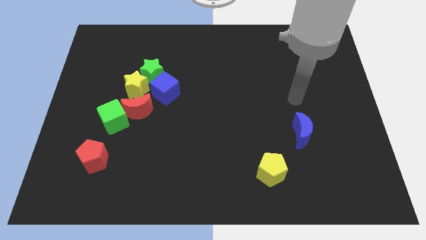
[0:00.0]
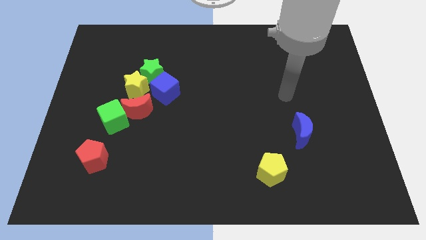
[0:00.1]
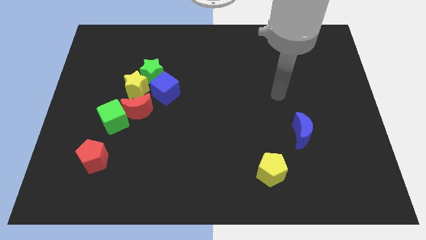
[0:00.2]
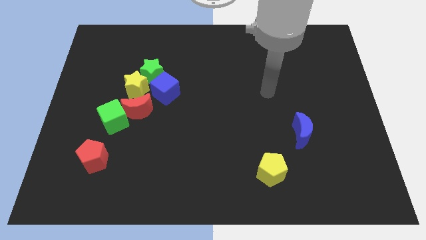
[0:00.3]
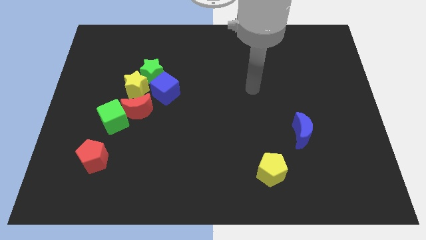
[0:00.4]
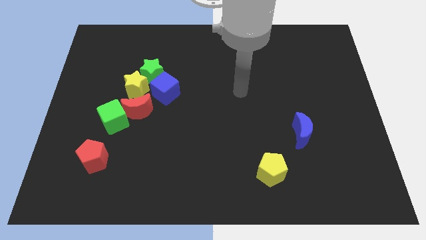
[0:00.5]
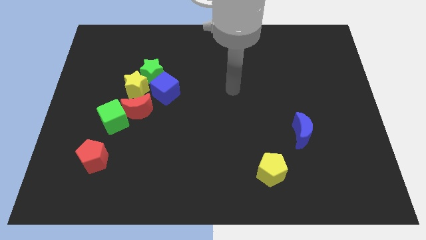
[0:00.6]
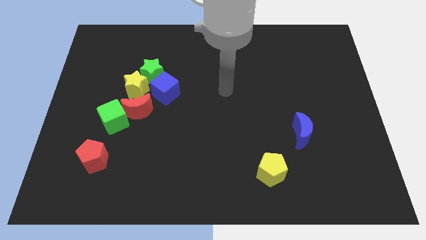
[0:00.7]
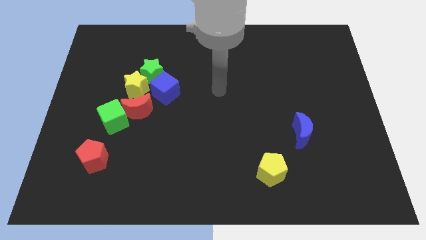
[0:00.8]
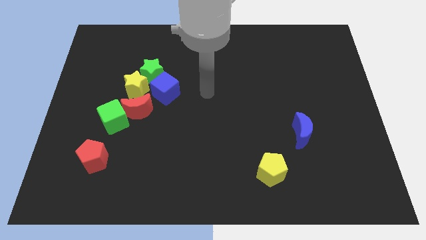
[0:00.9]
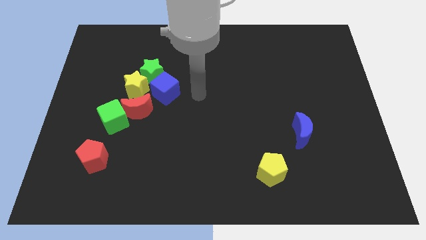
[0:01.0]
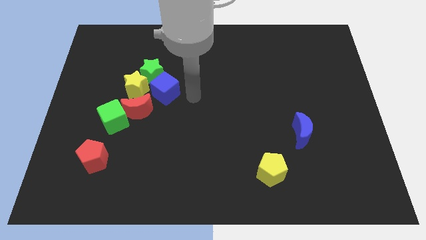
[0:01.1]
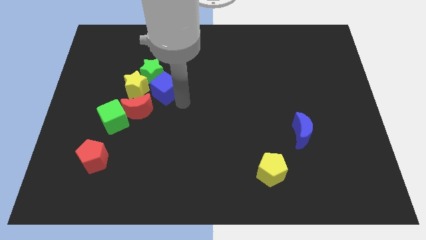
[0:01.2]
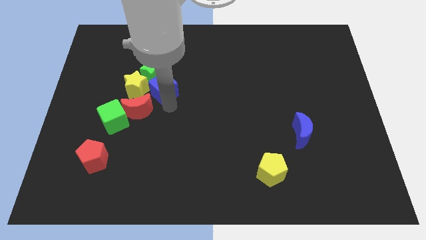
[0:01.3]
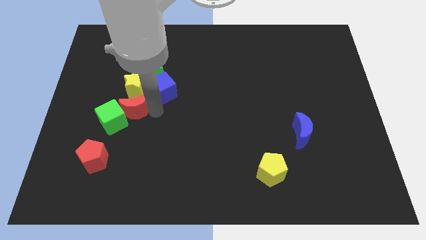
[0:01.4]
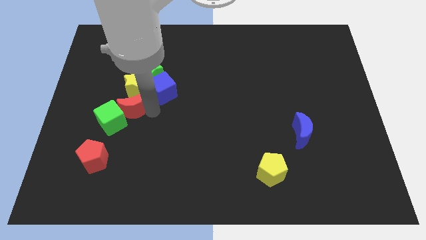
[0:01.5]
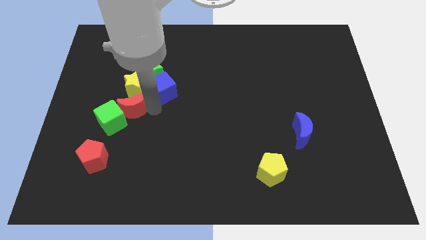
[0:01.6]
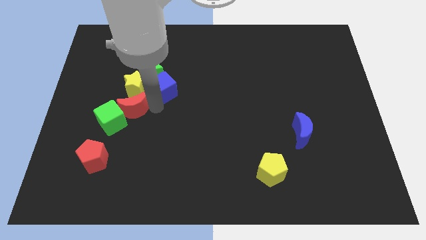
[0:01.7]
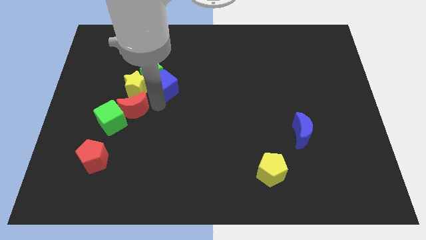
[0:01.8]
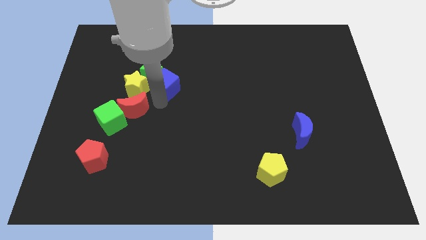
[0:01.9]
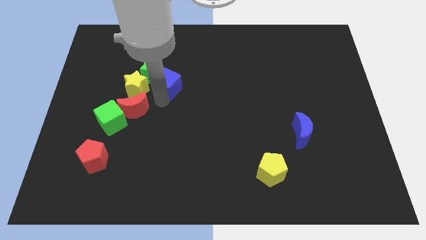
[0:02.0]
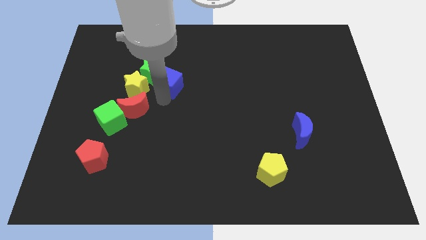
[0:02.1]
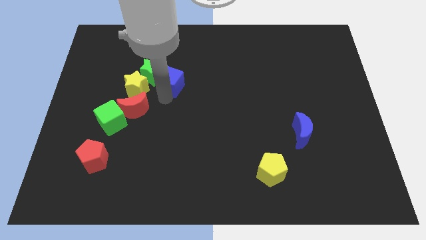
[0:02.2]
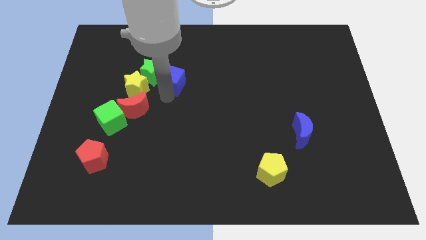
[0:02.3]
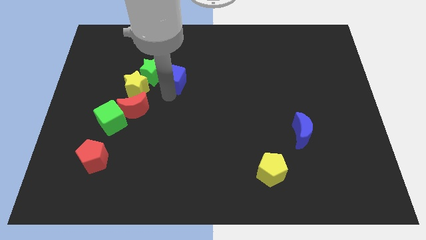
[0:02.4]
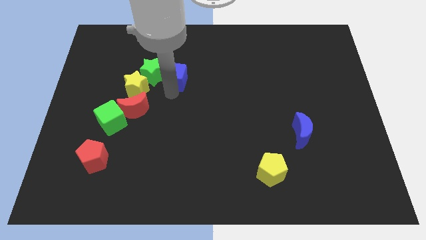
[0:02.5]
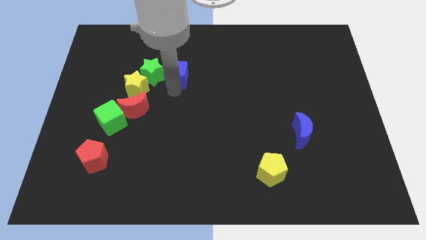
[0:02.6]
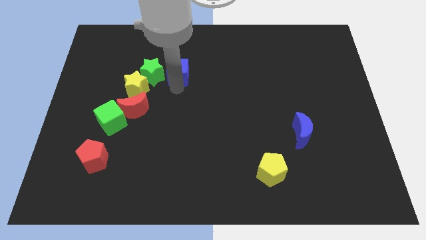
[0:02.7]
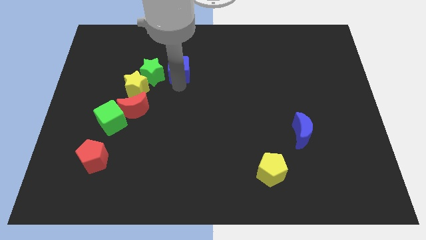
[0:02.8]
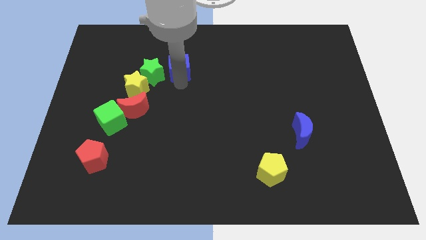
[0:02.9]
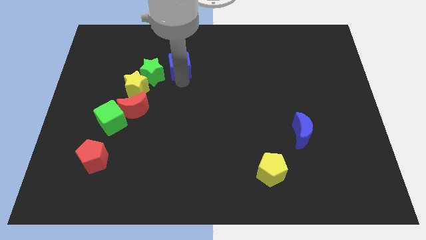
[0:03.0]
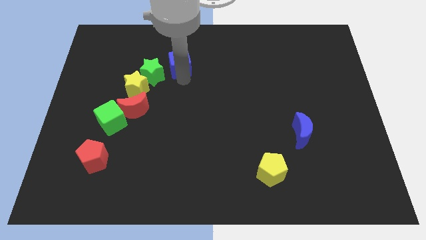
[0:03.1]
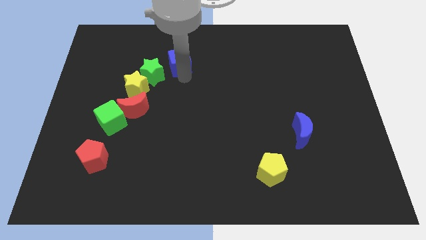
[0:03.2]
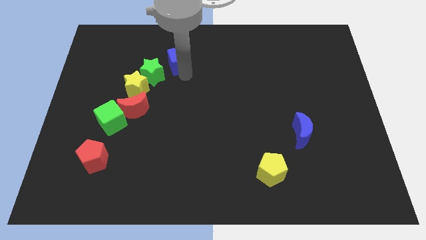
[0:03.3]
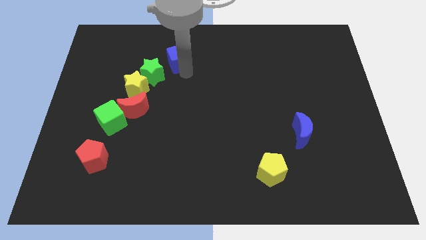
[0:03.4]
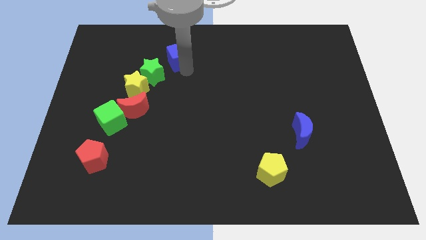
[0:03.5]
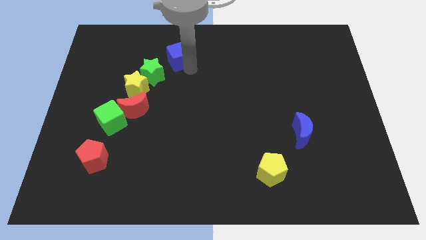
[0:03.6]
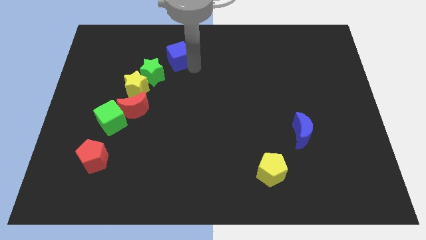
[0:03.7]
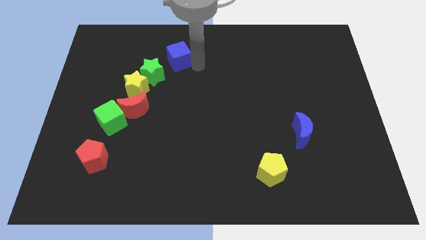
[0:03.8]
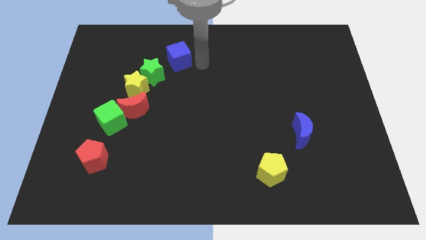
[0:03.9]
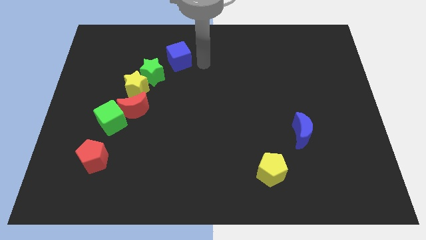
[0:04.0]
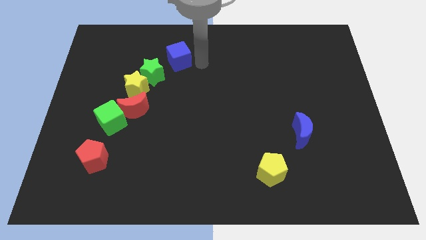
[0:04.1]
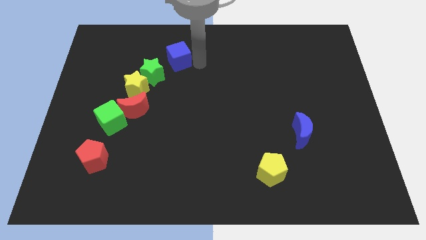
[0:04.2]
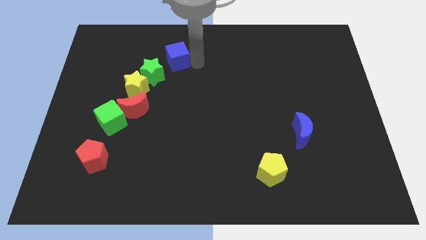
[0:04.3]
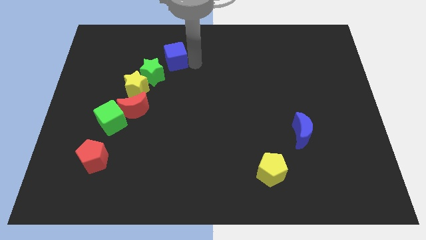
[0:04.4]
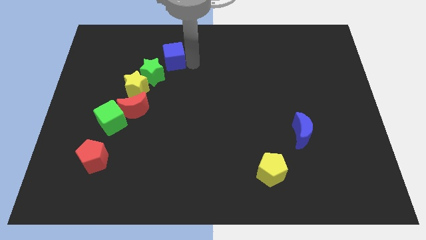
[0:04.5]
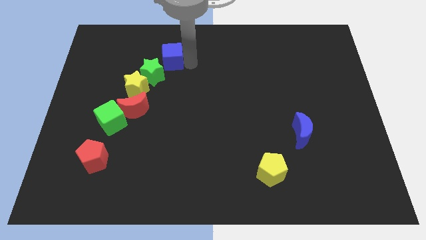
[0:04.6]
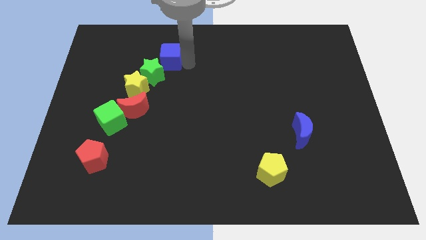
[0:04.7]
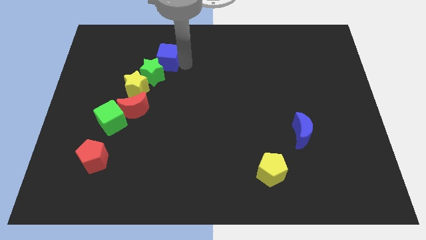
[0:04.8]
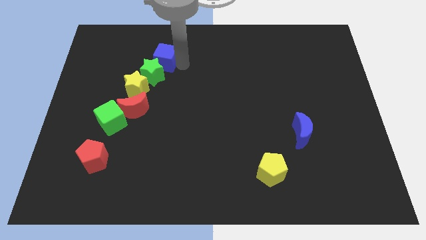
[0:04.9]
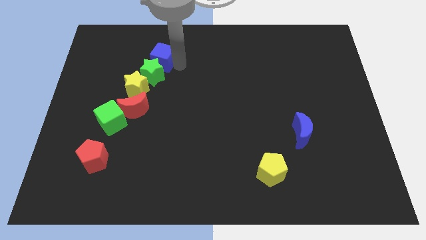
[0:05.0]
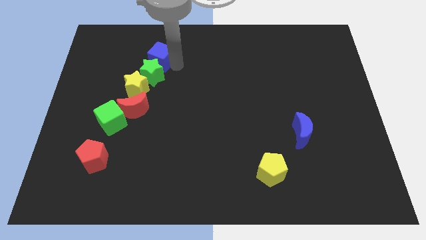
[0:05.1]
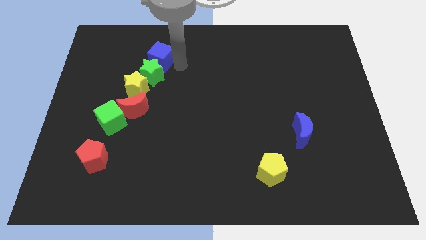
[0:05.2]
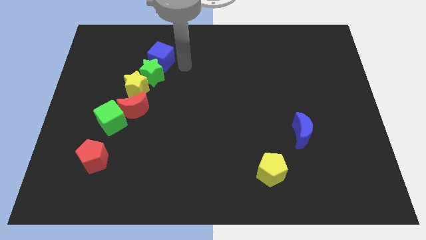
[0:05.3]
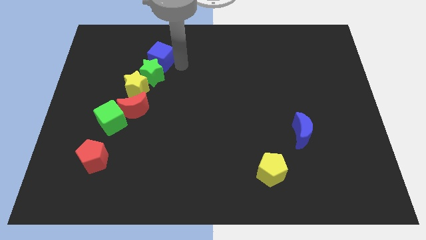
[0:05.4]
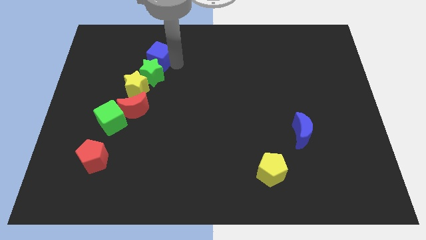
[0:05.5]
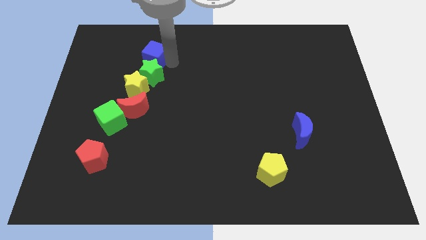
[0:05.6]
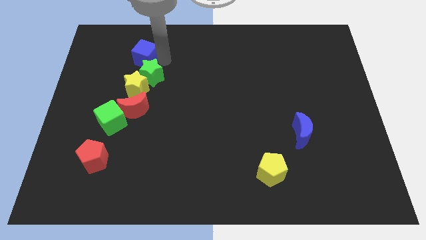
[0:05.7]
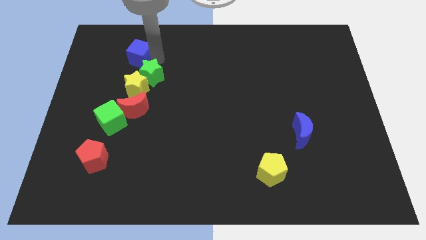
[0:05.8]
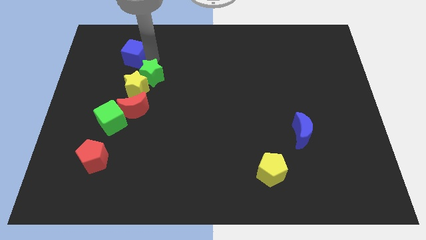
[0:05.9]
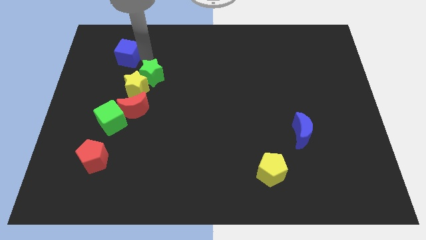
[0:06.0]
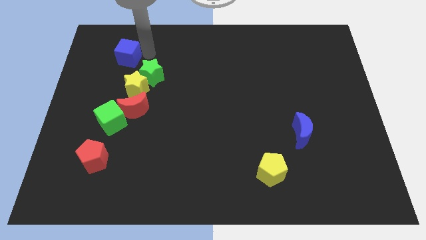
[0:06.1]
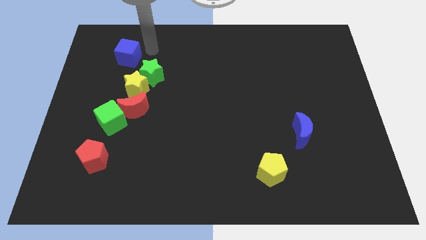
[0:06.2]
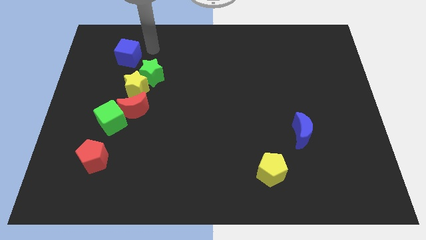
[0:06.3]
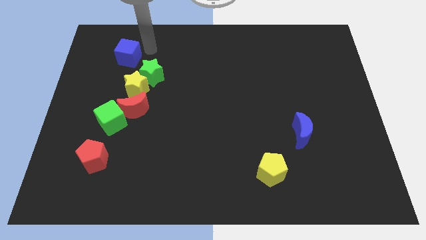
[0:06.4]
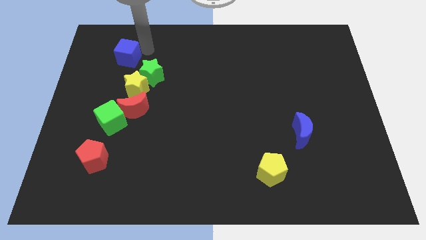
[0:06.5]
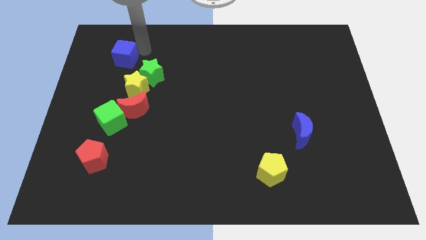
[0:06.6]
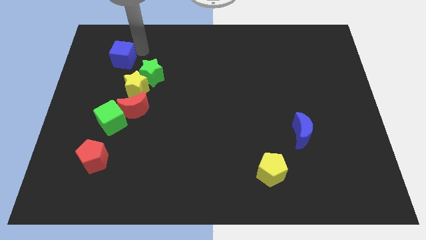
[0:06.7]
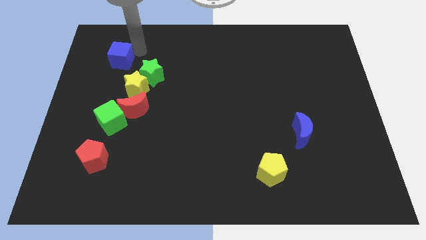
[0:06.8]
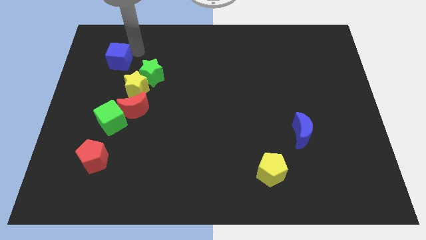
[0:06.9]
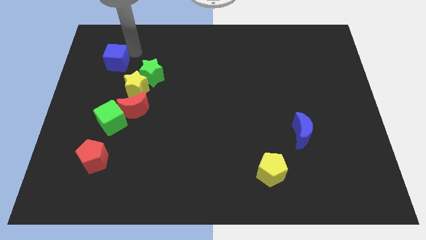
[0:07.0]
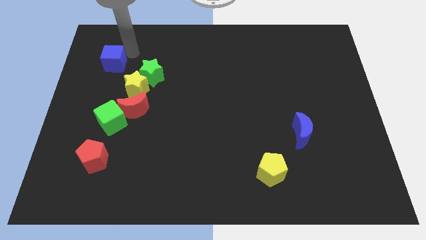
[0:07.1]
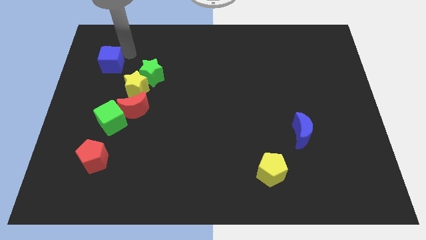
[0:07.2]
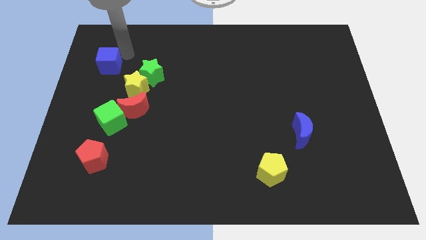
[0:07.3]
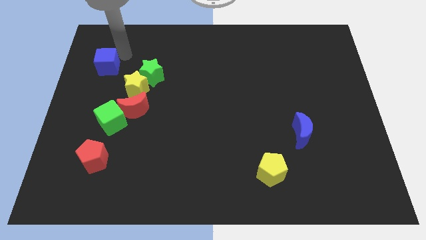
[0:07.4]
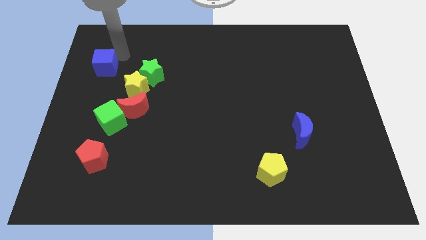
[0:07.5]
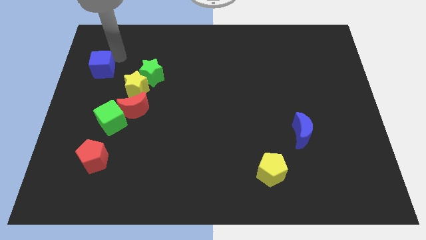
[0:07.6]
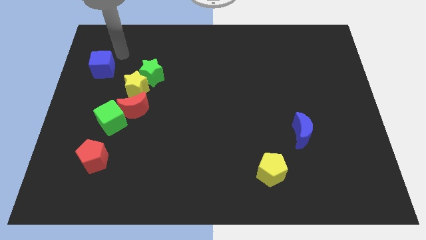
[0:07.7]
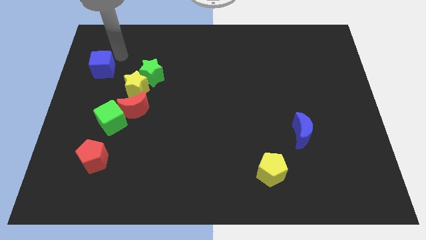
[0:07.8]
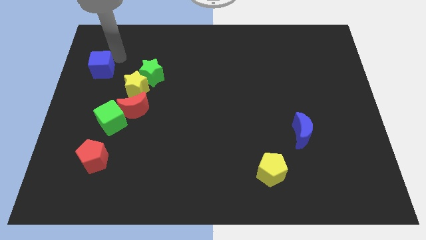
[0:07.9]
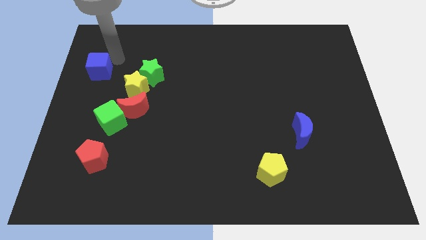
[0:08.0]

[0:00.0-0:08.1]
slide the blue cube to the left side of the board
